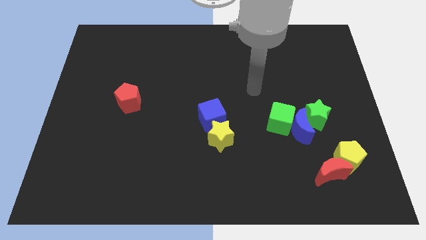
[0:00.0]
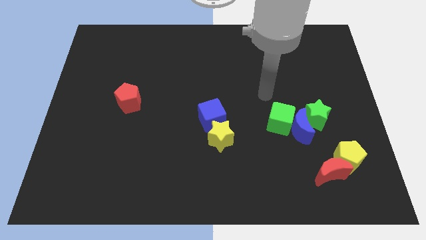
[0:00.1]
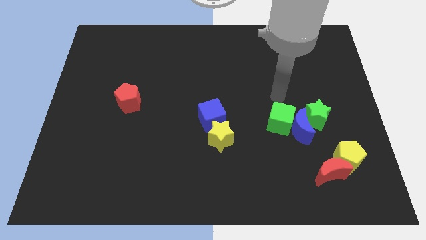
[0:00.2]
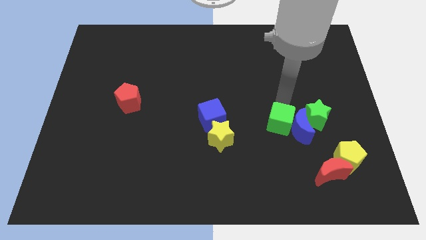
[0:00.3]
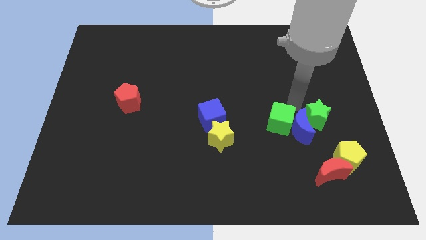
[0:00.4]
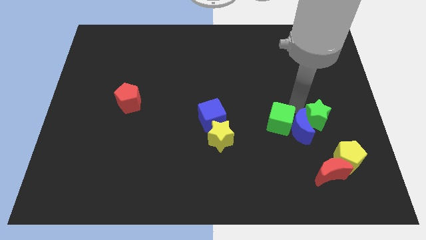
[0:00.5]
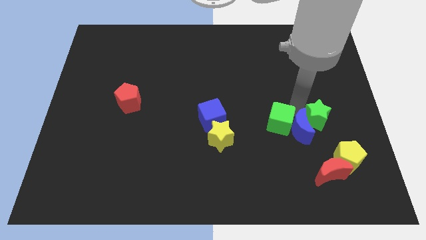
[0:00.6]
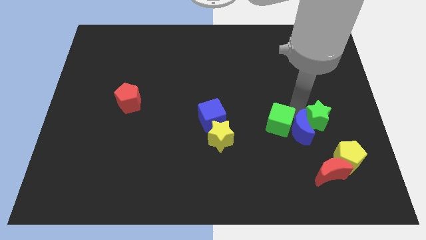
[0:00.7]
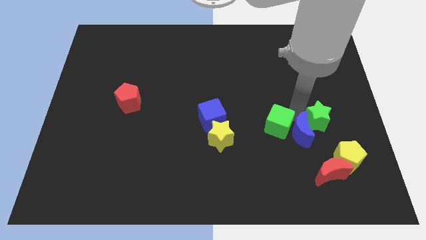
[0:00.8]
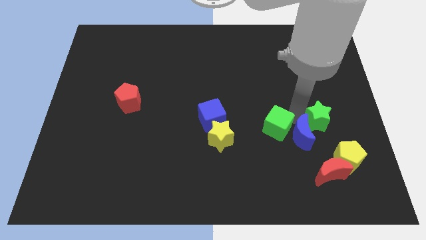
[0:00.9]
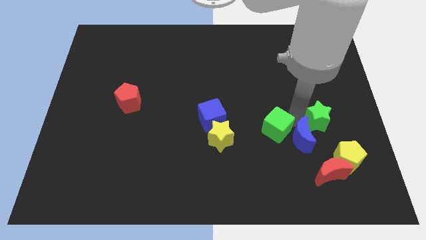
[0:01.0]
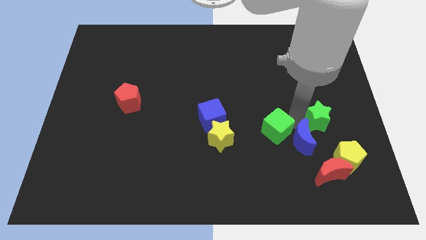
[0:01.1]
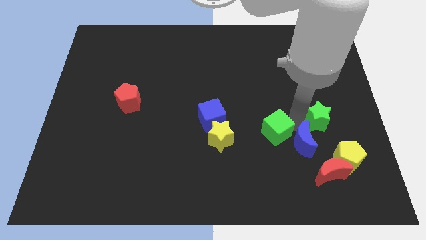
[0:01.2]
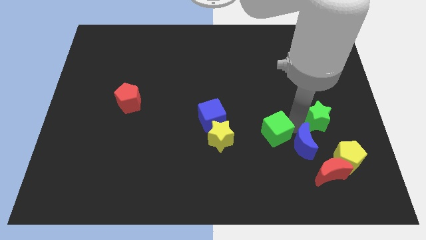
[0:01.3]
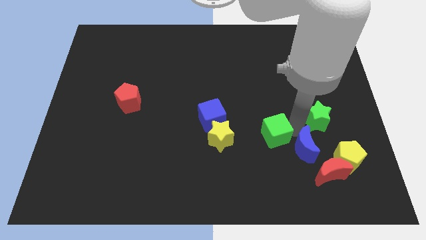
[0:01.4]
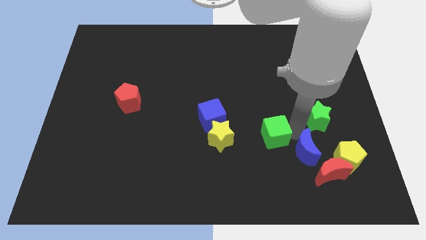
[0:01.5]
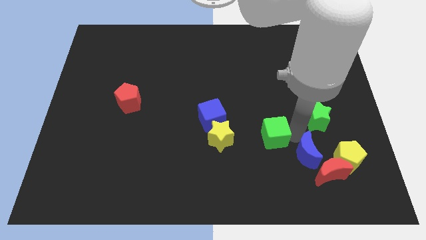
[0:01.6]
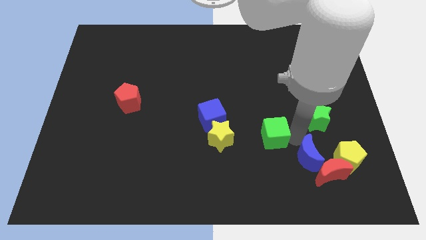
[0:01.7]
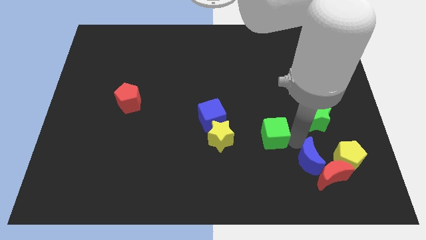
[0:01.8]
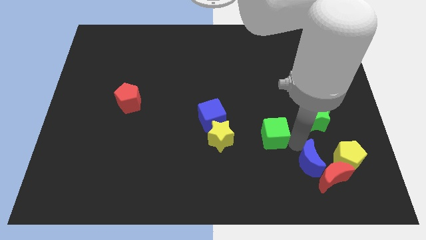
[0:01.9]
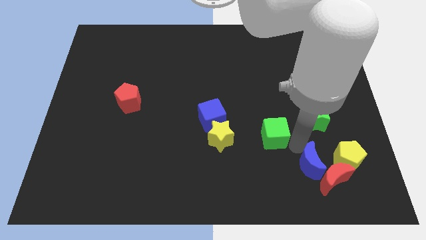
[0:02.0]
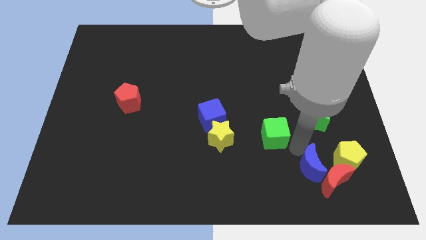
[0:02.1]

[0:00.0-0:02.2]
move the blue moon away from the green cube and green star

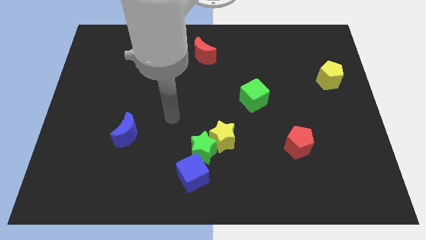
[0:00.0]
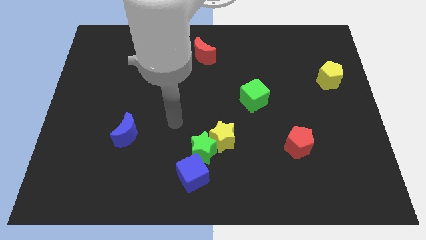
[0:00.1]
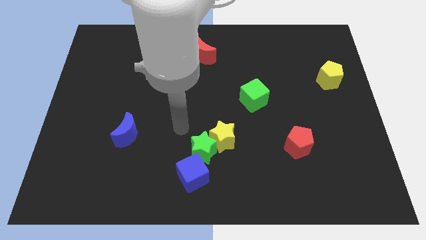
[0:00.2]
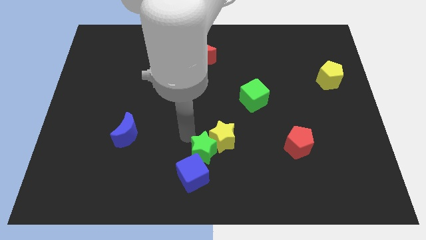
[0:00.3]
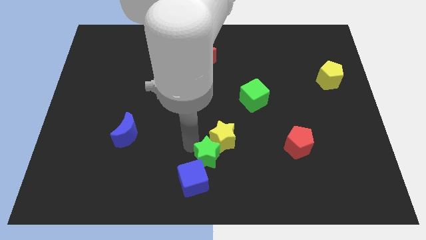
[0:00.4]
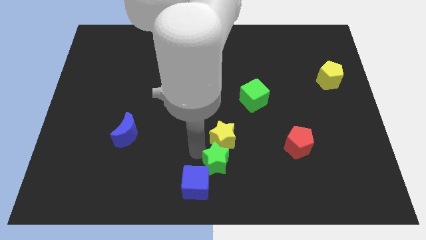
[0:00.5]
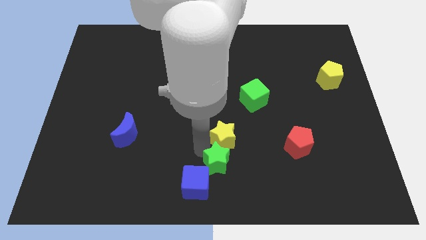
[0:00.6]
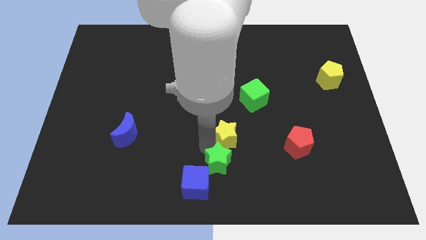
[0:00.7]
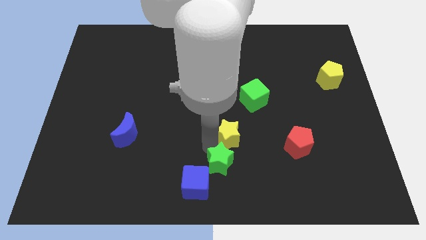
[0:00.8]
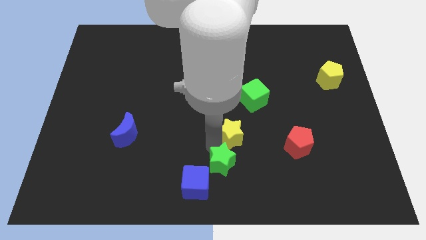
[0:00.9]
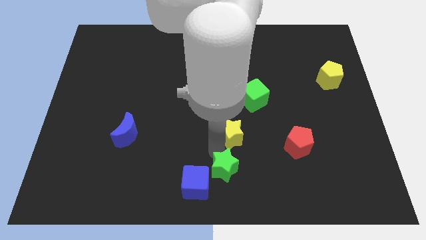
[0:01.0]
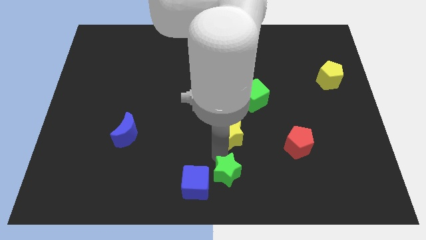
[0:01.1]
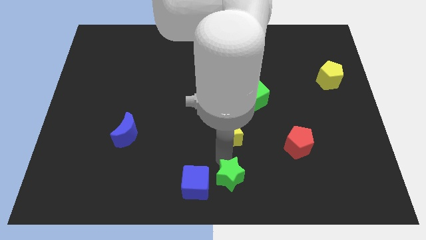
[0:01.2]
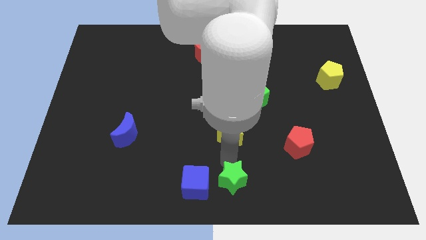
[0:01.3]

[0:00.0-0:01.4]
separate the yellow star from the green star

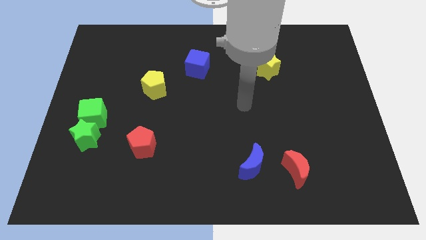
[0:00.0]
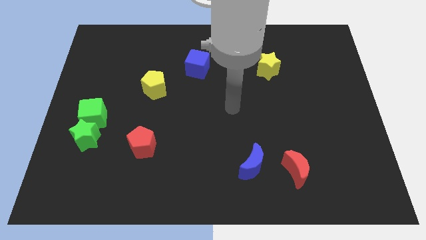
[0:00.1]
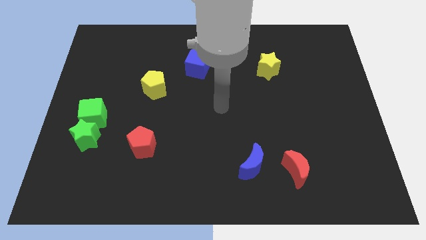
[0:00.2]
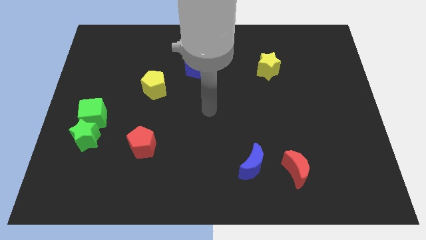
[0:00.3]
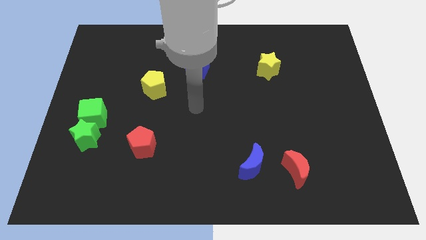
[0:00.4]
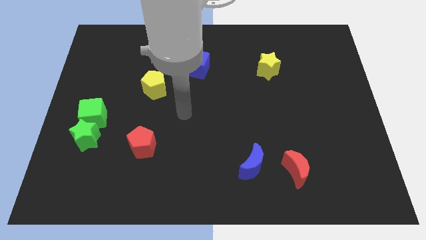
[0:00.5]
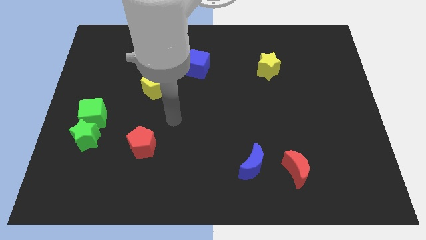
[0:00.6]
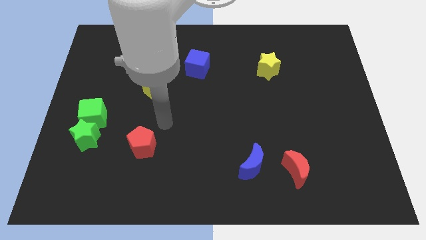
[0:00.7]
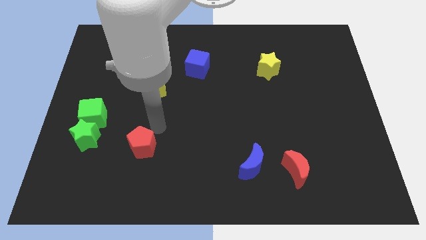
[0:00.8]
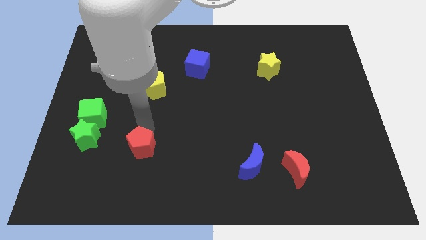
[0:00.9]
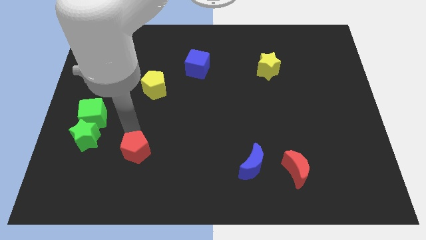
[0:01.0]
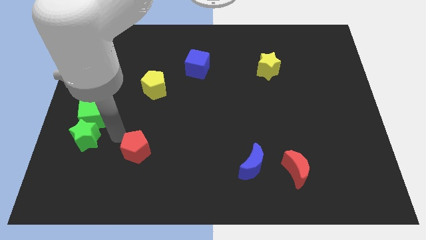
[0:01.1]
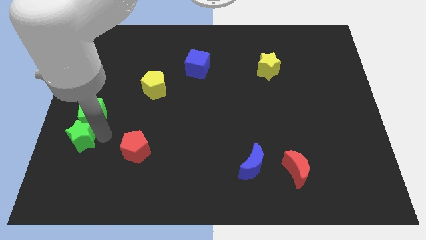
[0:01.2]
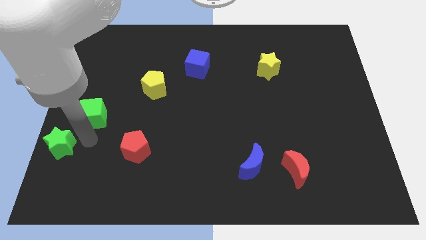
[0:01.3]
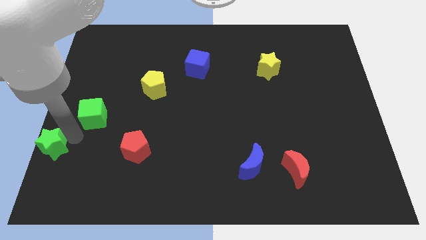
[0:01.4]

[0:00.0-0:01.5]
move the green cube away from the green star

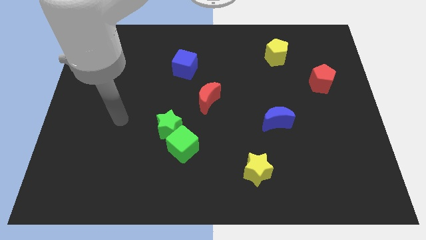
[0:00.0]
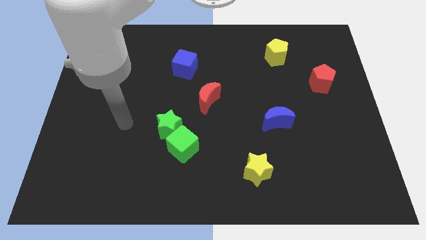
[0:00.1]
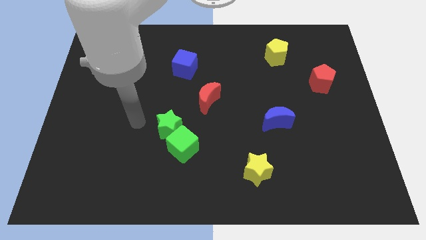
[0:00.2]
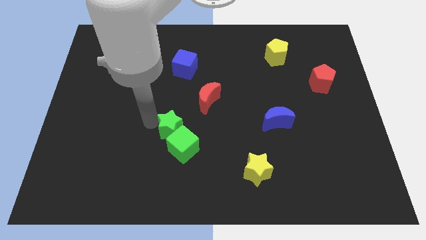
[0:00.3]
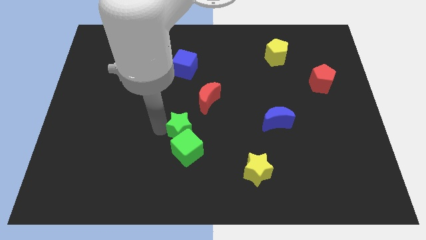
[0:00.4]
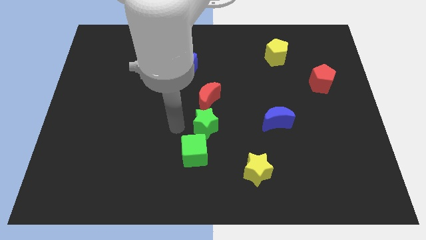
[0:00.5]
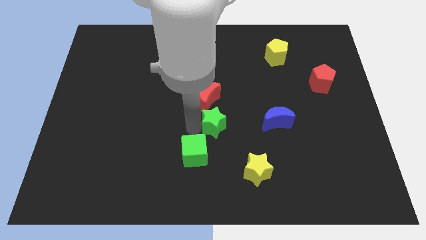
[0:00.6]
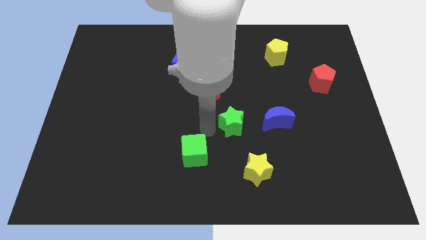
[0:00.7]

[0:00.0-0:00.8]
pull the green cube apart from the green star

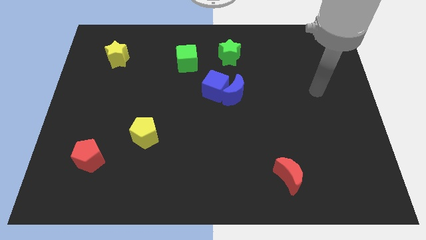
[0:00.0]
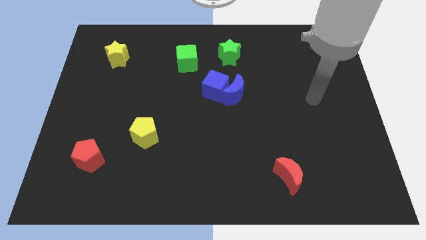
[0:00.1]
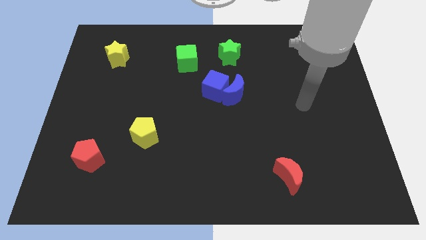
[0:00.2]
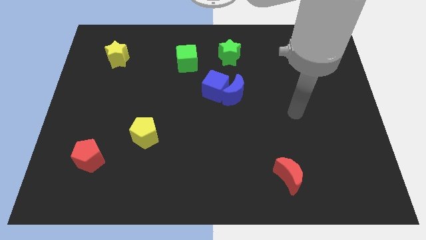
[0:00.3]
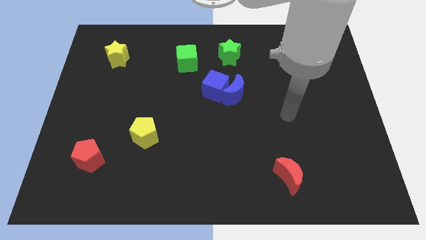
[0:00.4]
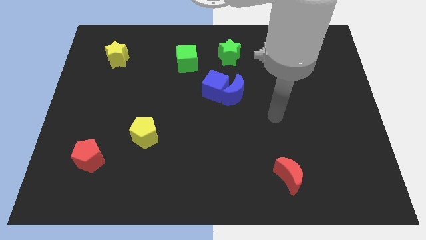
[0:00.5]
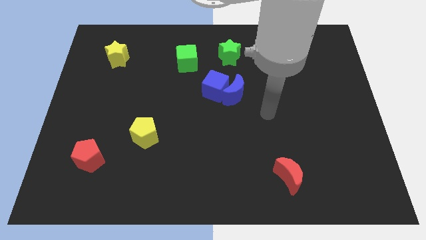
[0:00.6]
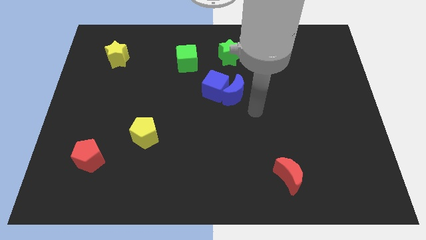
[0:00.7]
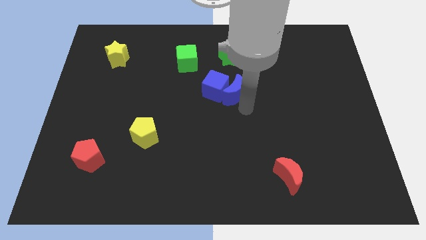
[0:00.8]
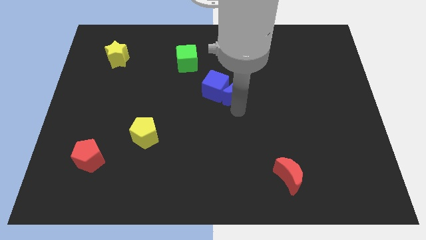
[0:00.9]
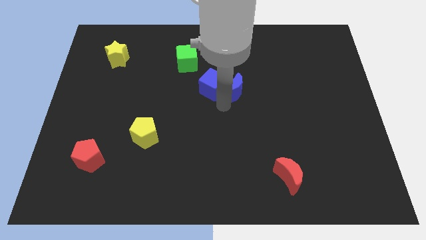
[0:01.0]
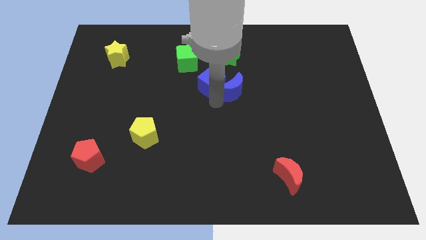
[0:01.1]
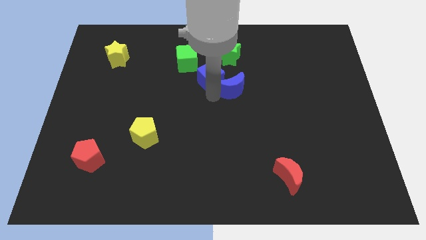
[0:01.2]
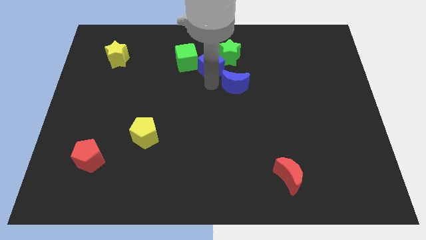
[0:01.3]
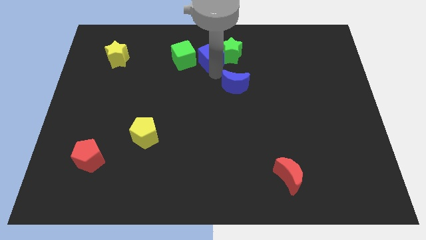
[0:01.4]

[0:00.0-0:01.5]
pull the blue moon apart from the blue cube

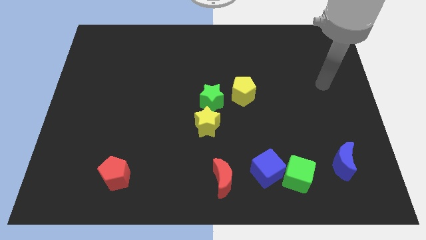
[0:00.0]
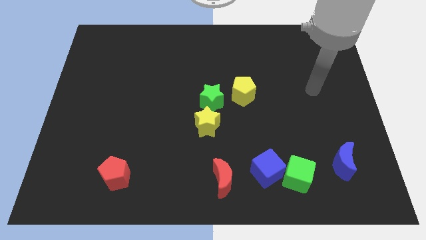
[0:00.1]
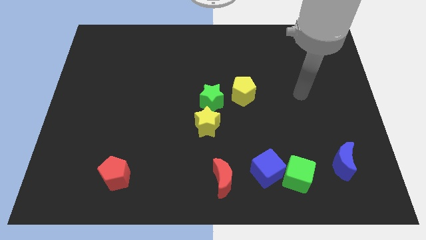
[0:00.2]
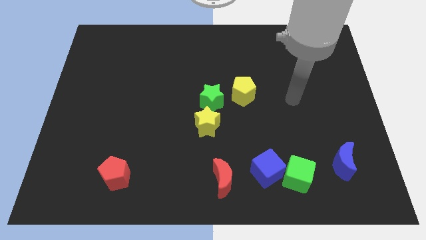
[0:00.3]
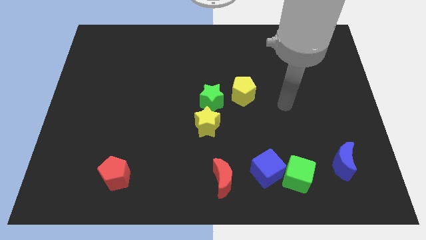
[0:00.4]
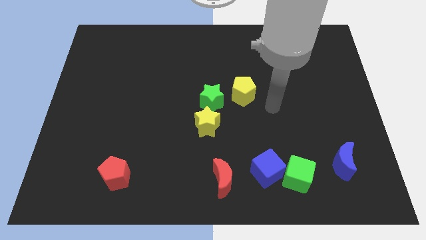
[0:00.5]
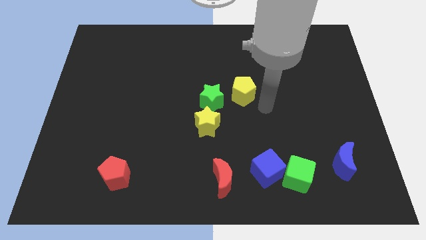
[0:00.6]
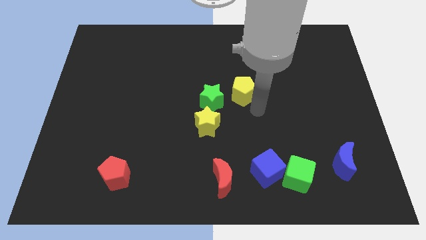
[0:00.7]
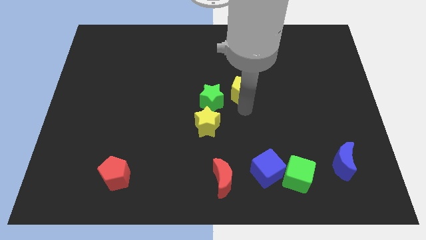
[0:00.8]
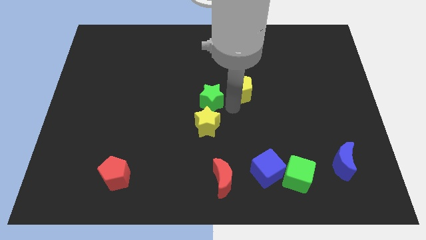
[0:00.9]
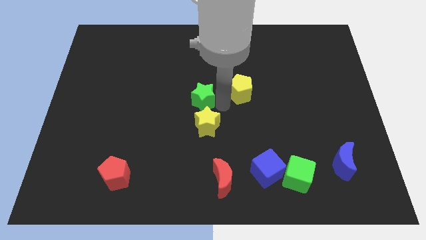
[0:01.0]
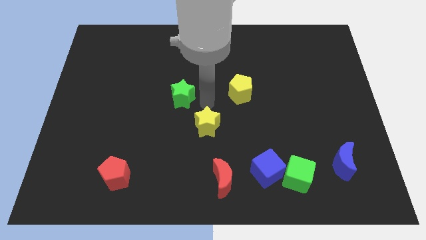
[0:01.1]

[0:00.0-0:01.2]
move the yellow star away from the green star

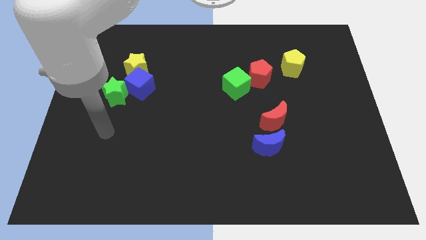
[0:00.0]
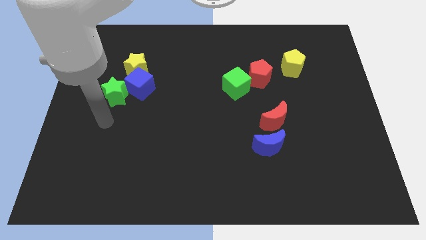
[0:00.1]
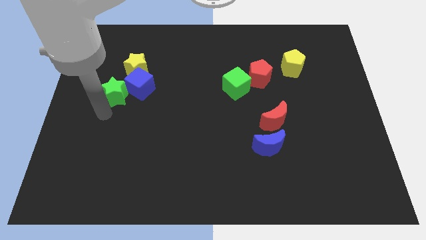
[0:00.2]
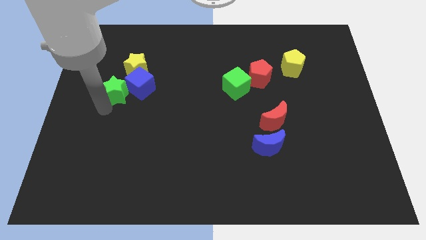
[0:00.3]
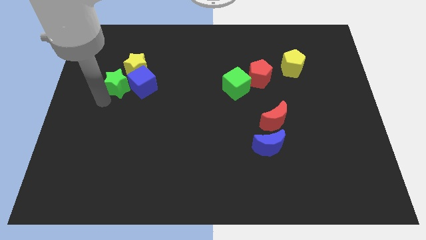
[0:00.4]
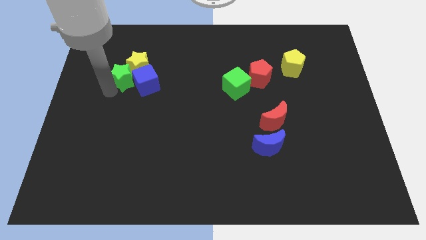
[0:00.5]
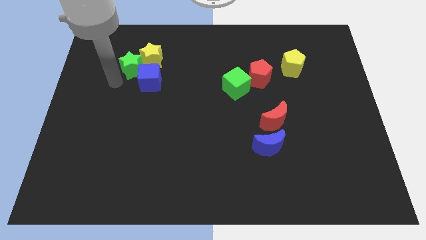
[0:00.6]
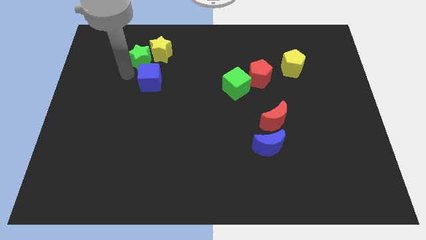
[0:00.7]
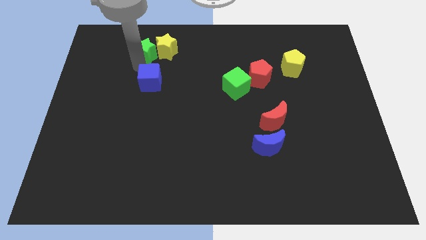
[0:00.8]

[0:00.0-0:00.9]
pull the blue cube apart from the yellow star and green star
